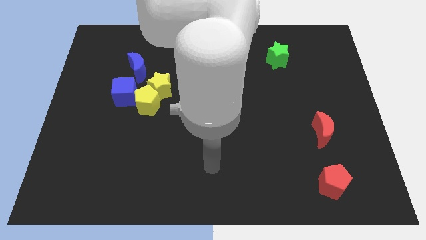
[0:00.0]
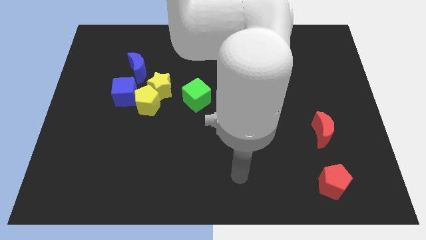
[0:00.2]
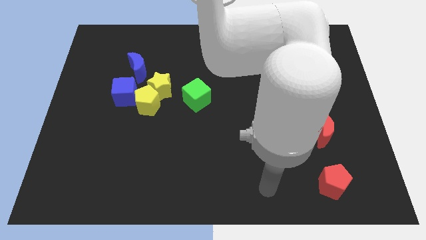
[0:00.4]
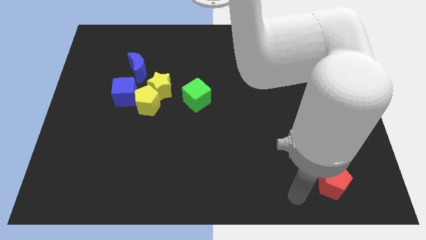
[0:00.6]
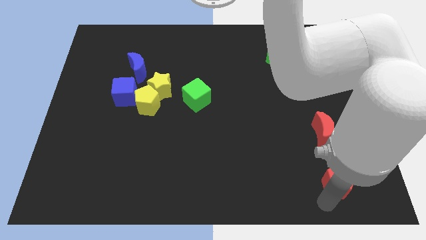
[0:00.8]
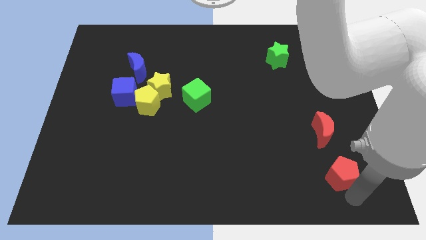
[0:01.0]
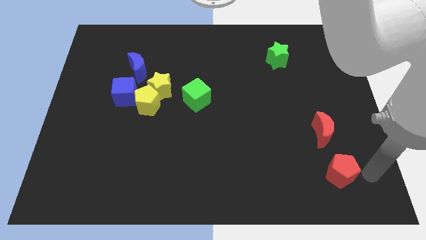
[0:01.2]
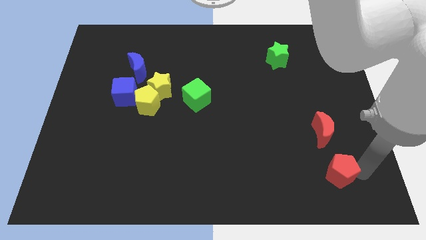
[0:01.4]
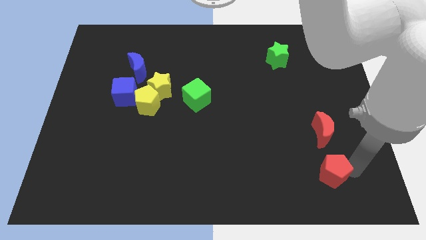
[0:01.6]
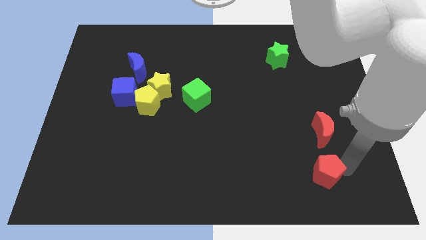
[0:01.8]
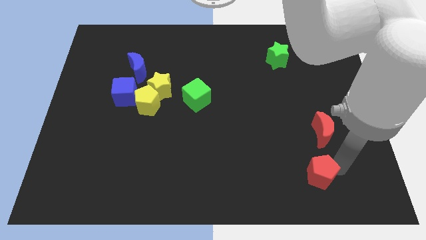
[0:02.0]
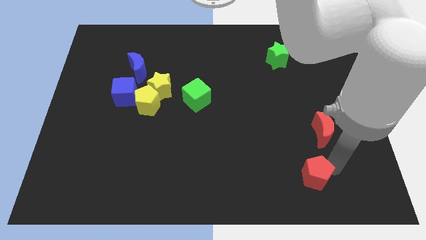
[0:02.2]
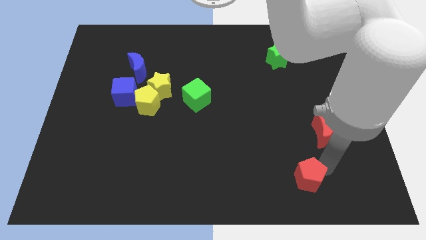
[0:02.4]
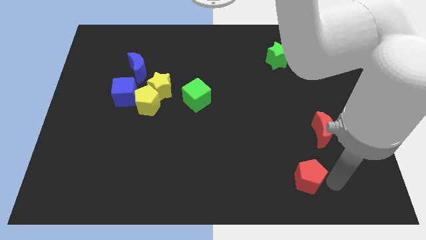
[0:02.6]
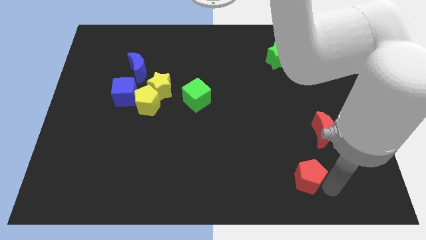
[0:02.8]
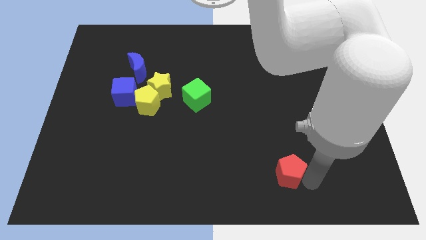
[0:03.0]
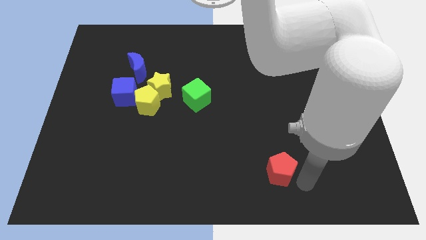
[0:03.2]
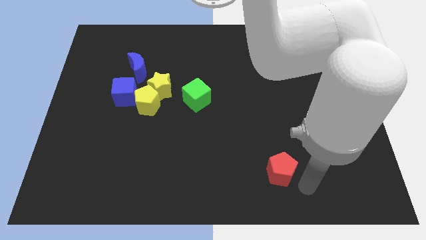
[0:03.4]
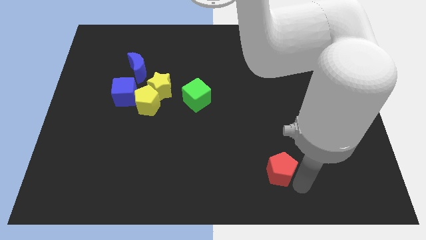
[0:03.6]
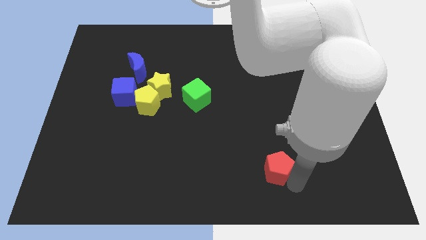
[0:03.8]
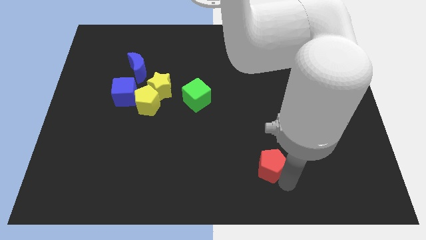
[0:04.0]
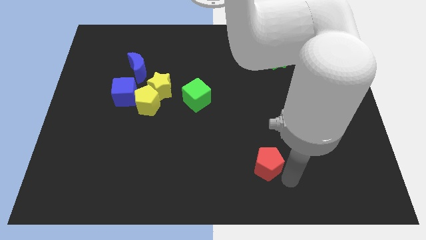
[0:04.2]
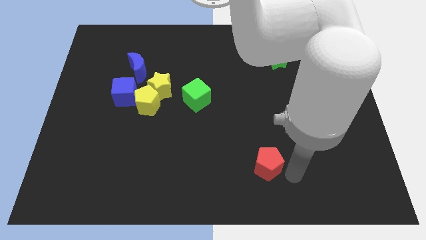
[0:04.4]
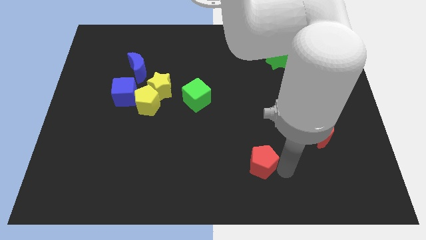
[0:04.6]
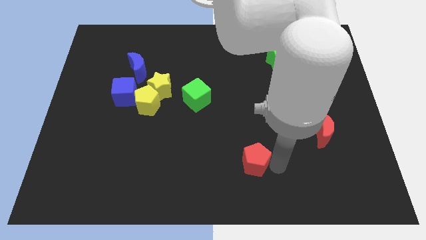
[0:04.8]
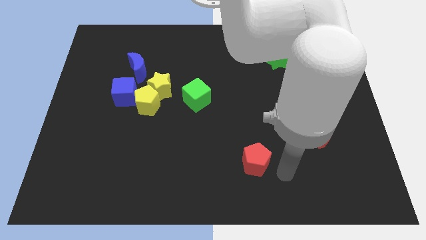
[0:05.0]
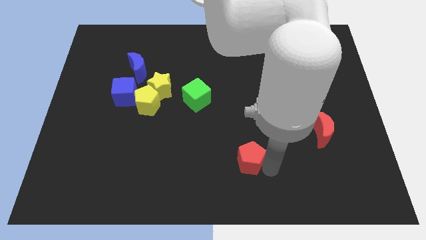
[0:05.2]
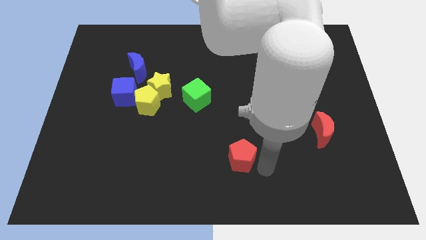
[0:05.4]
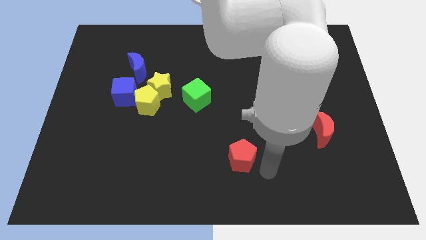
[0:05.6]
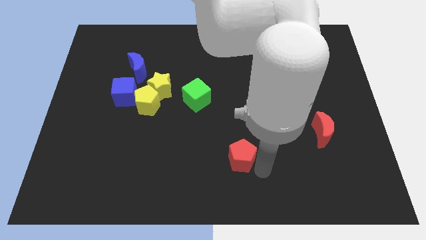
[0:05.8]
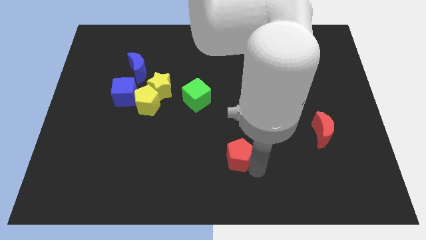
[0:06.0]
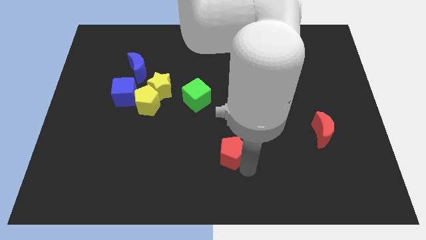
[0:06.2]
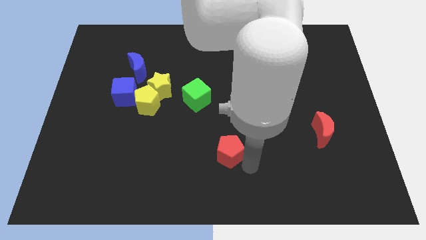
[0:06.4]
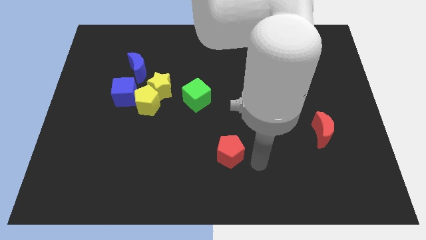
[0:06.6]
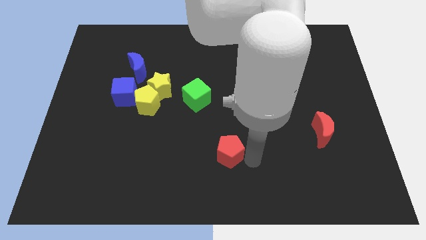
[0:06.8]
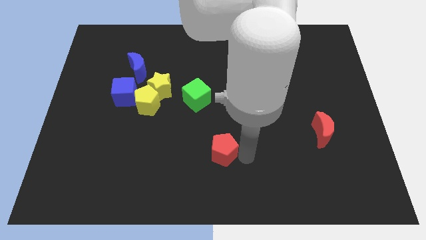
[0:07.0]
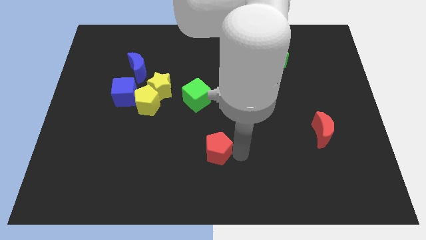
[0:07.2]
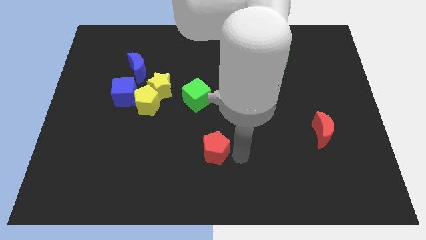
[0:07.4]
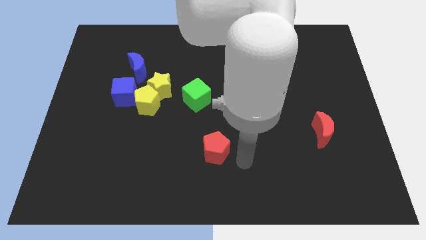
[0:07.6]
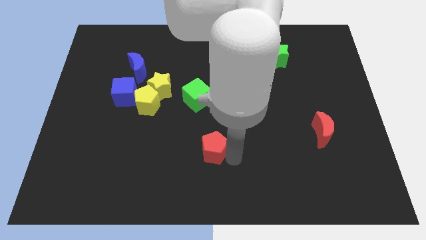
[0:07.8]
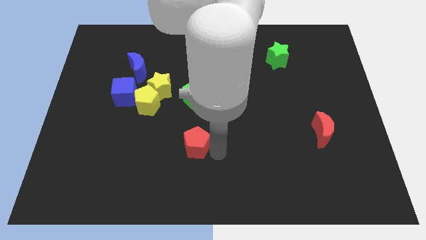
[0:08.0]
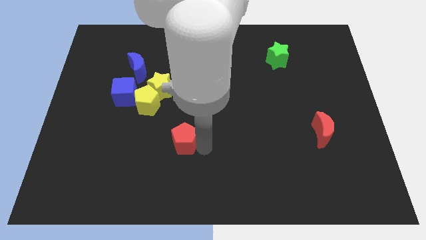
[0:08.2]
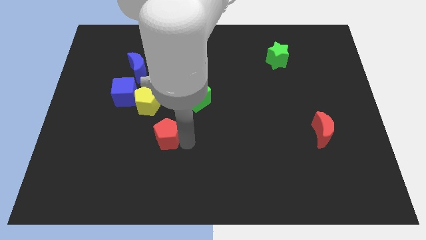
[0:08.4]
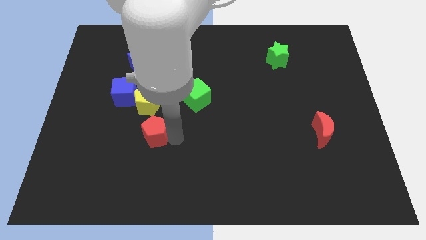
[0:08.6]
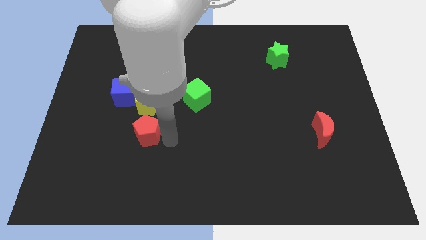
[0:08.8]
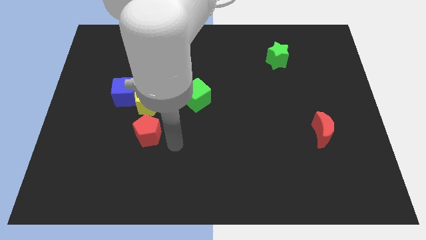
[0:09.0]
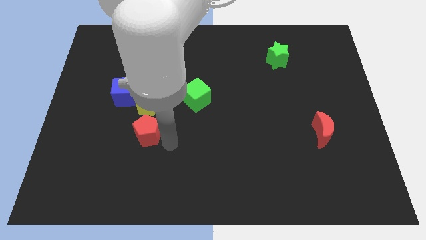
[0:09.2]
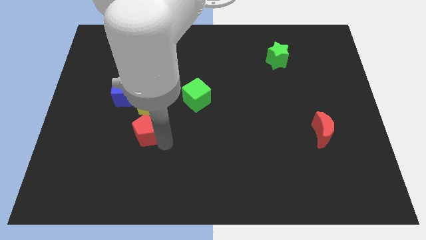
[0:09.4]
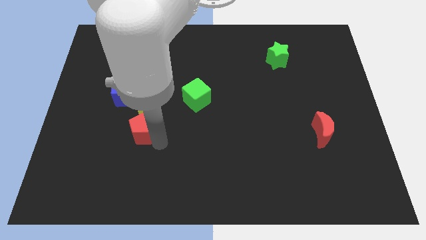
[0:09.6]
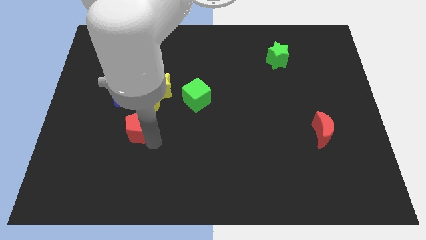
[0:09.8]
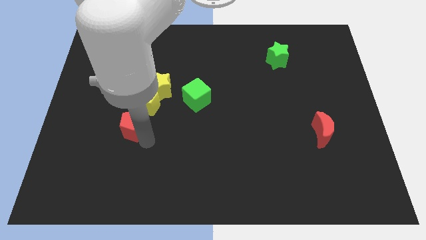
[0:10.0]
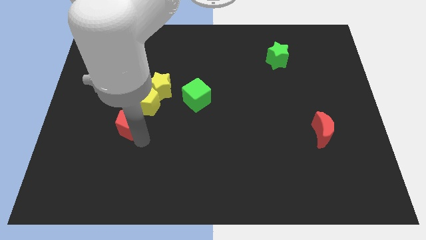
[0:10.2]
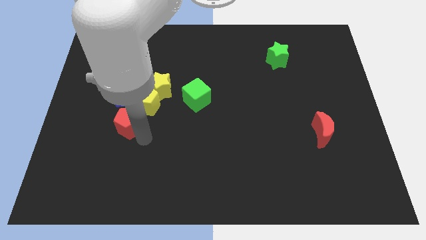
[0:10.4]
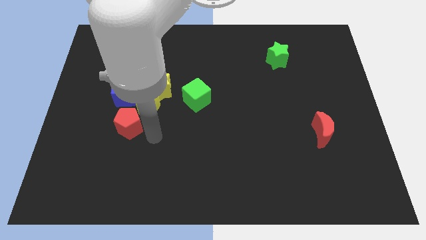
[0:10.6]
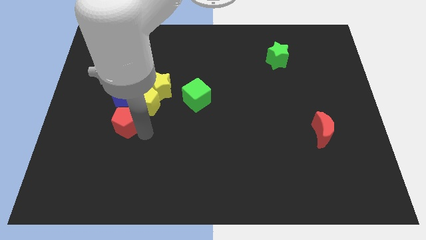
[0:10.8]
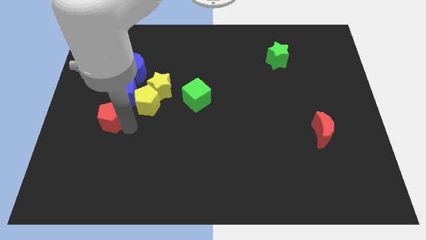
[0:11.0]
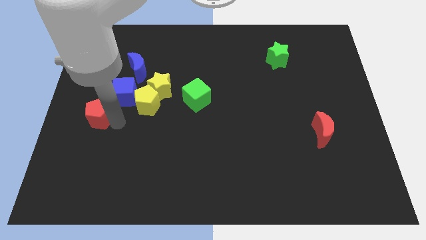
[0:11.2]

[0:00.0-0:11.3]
slide the red pentagon to the left side

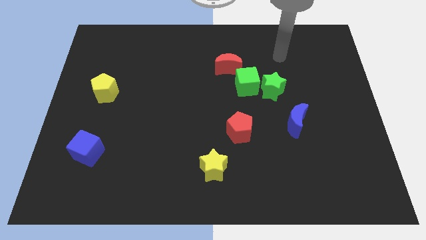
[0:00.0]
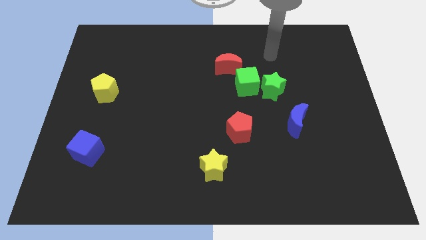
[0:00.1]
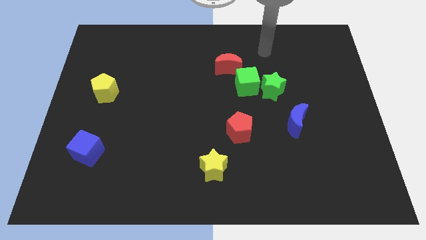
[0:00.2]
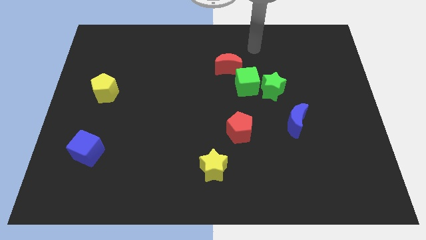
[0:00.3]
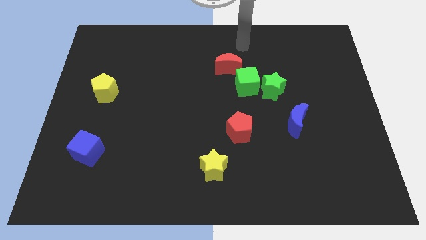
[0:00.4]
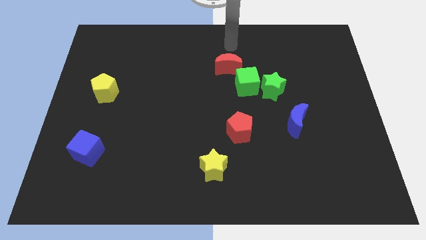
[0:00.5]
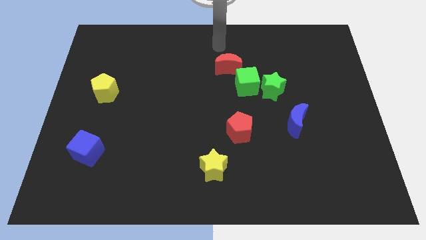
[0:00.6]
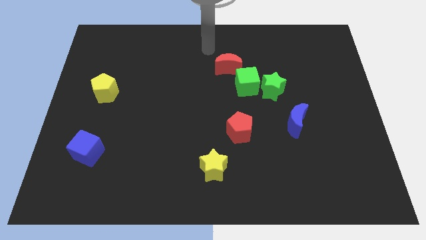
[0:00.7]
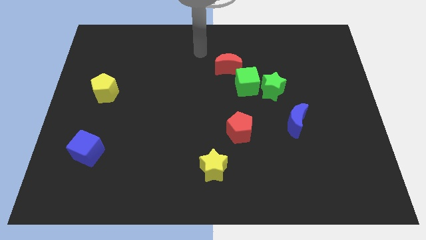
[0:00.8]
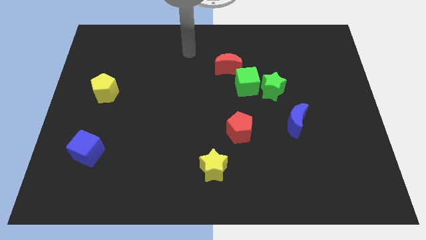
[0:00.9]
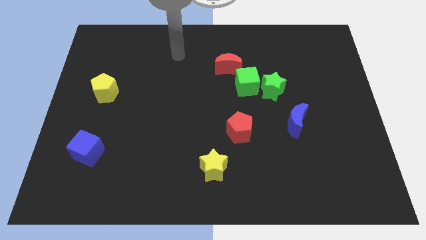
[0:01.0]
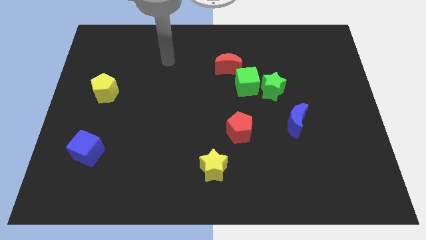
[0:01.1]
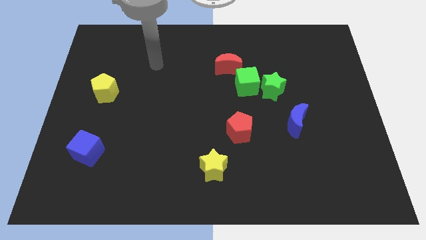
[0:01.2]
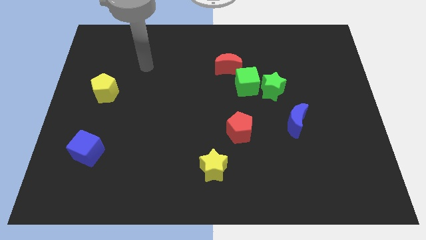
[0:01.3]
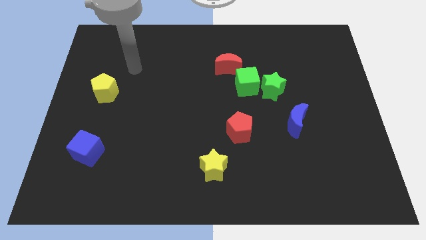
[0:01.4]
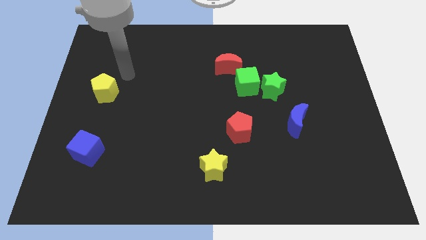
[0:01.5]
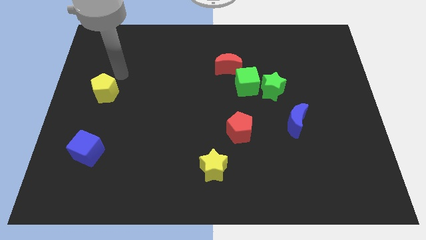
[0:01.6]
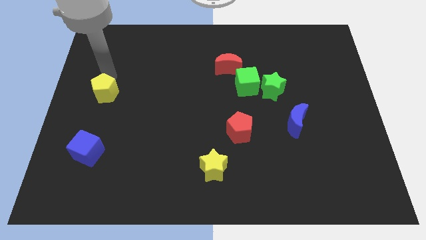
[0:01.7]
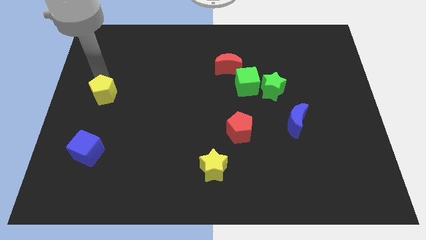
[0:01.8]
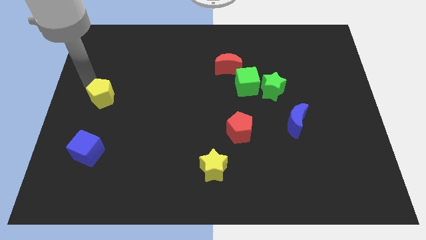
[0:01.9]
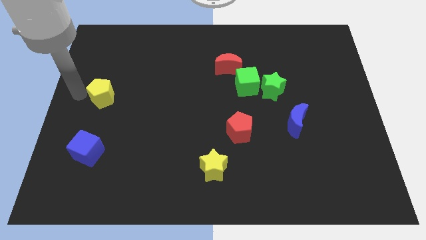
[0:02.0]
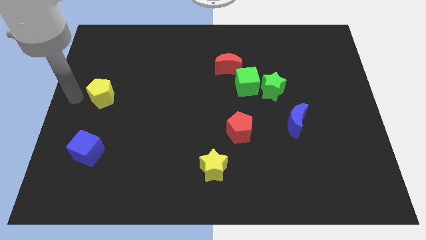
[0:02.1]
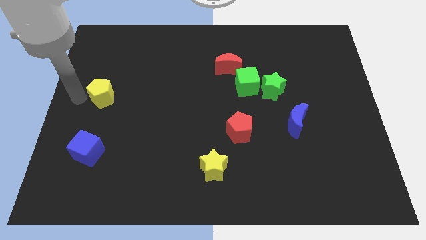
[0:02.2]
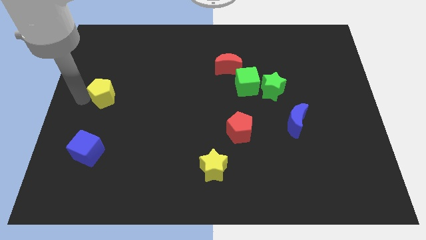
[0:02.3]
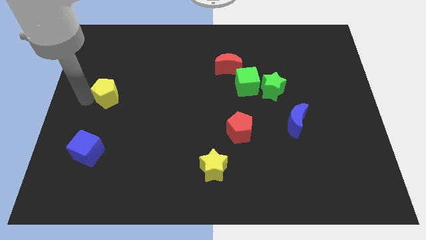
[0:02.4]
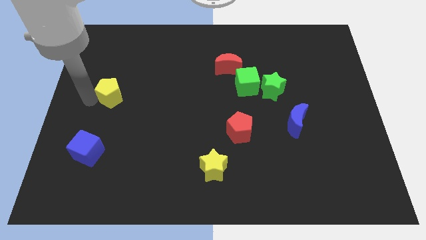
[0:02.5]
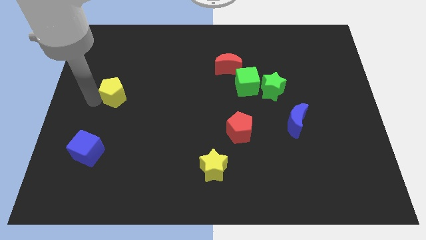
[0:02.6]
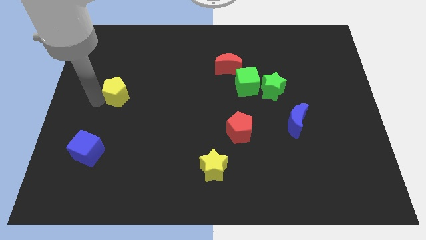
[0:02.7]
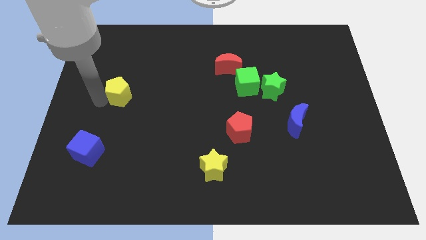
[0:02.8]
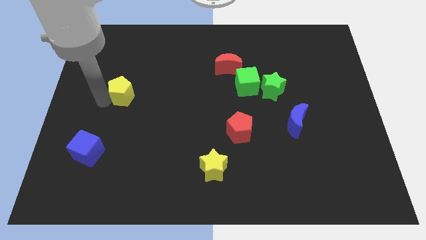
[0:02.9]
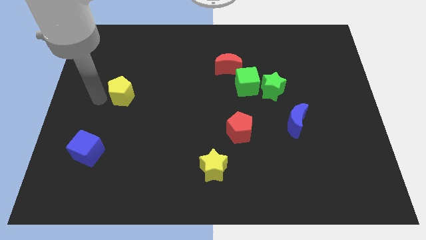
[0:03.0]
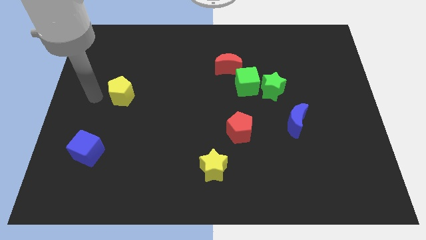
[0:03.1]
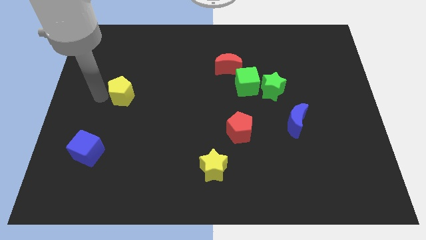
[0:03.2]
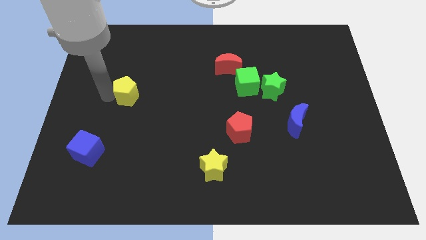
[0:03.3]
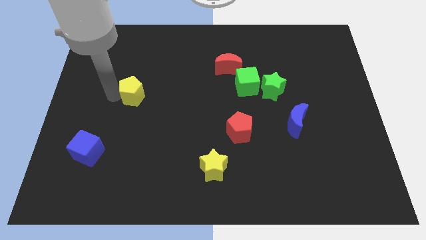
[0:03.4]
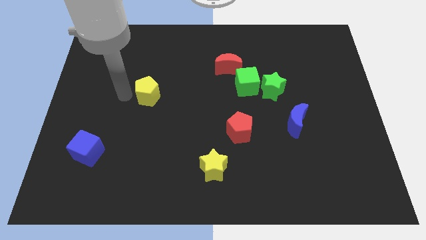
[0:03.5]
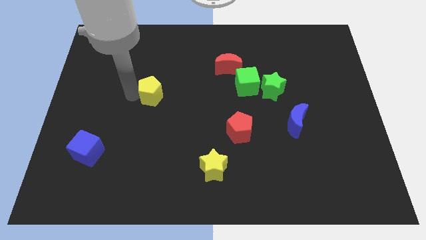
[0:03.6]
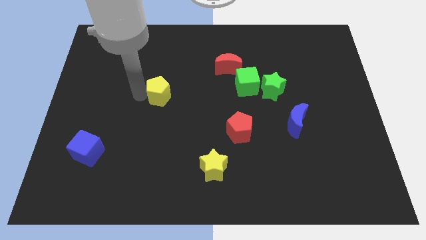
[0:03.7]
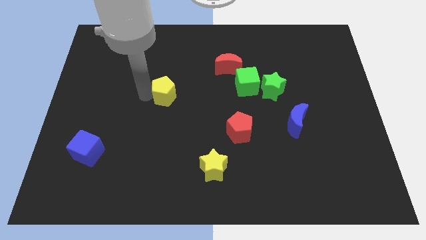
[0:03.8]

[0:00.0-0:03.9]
push the yellow pentagon to the center
